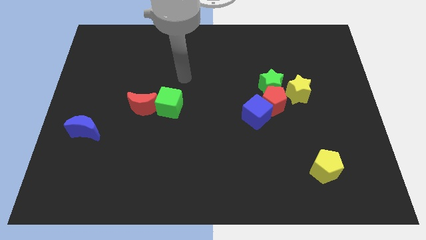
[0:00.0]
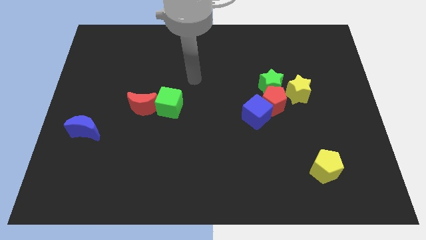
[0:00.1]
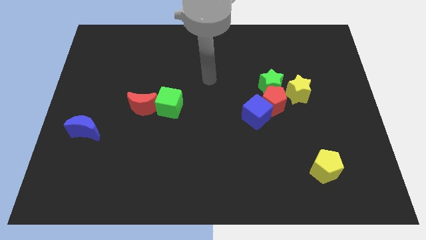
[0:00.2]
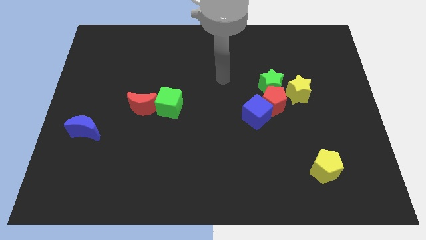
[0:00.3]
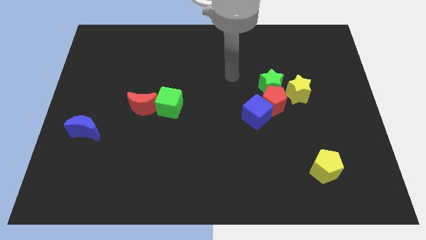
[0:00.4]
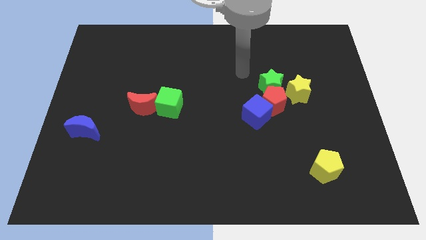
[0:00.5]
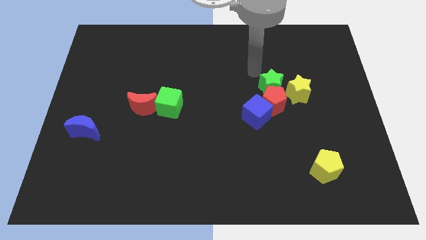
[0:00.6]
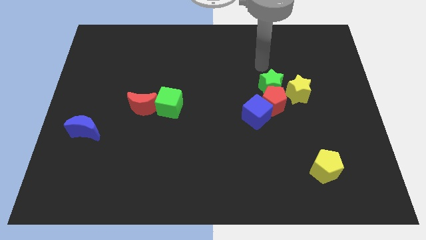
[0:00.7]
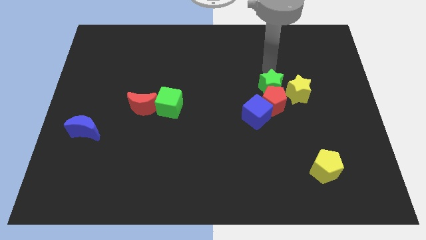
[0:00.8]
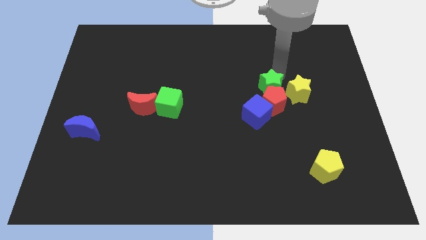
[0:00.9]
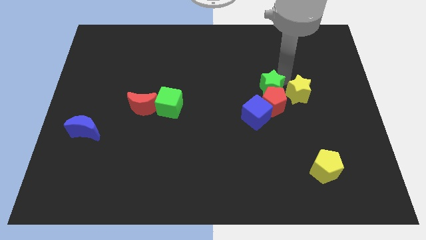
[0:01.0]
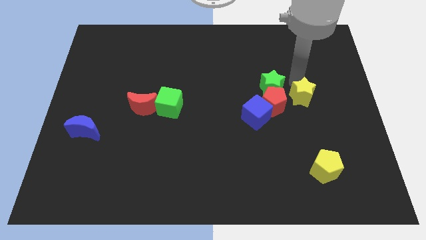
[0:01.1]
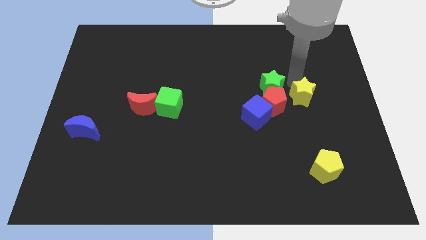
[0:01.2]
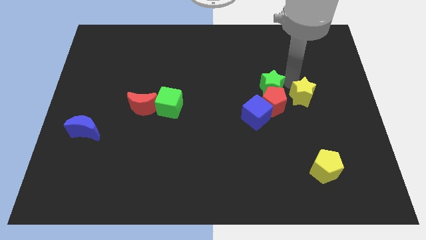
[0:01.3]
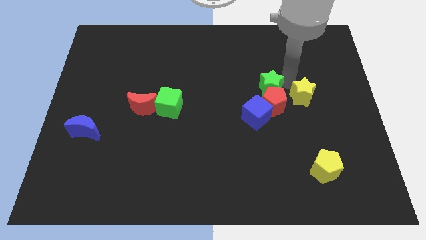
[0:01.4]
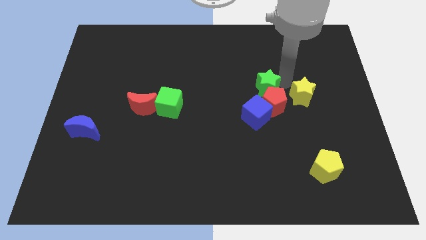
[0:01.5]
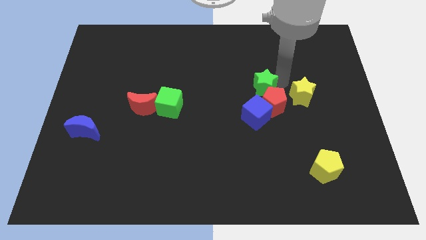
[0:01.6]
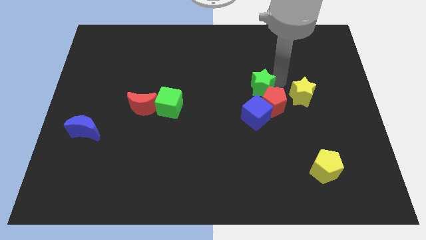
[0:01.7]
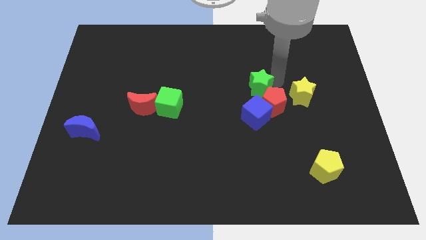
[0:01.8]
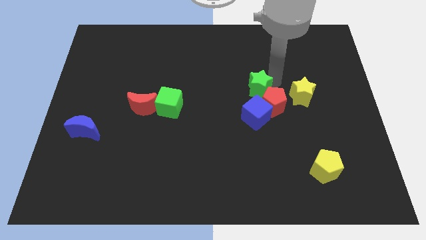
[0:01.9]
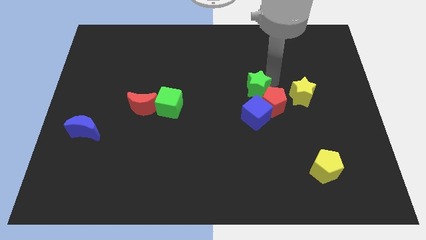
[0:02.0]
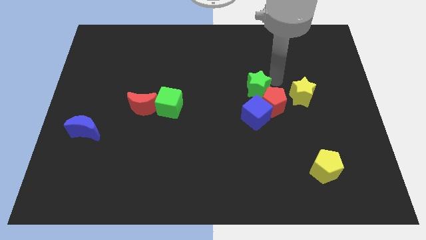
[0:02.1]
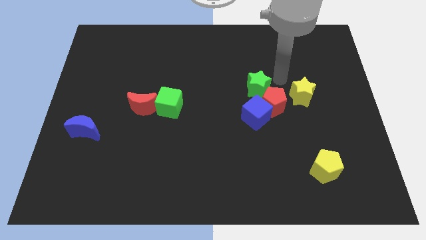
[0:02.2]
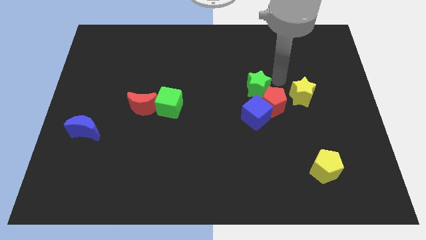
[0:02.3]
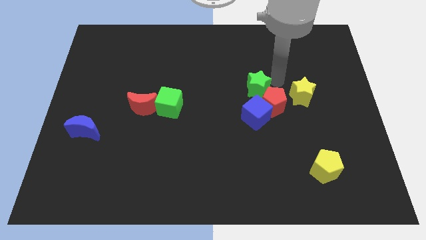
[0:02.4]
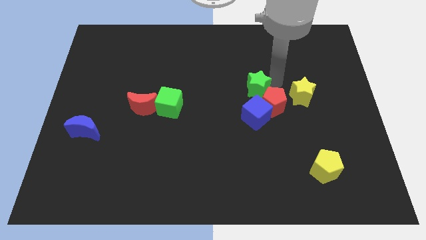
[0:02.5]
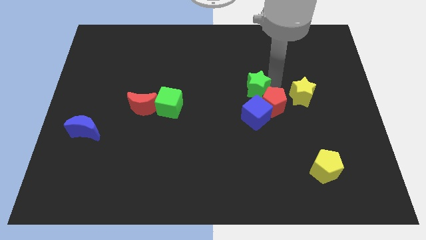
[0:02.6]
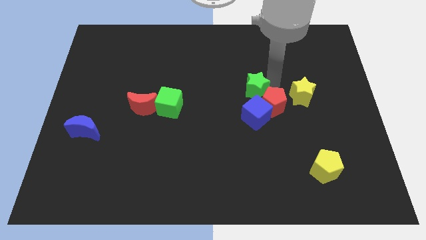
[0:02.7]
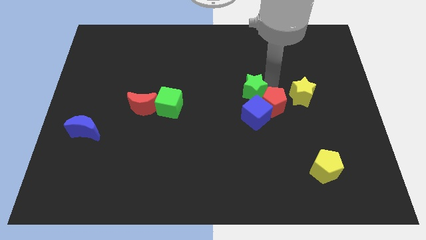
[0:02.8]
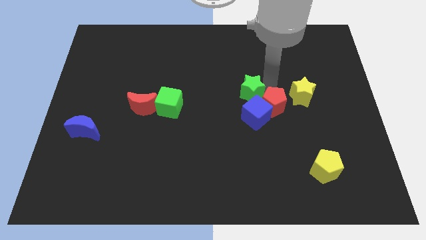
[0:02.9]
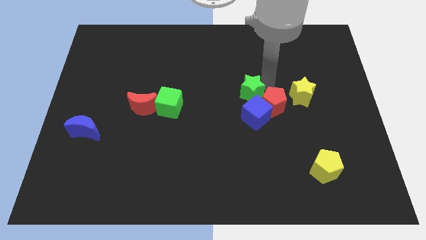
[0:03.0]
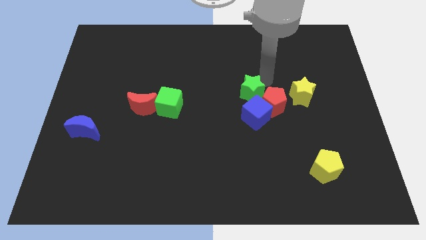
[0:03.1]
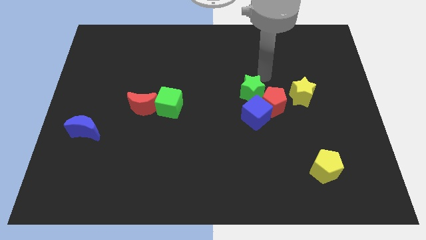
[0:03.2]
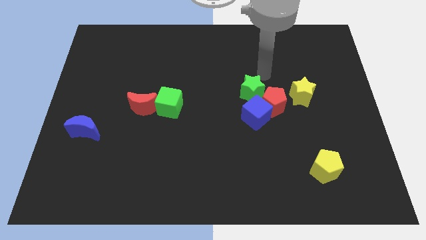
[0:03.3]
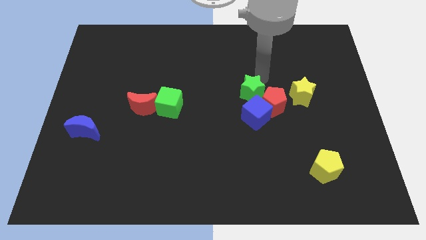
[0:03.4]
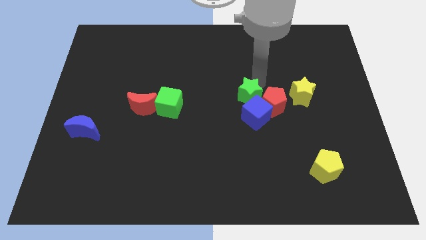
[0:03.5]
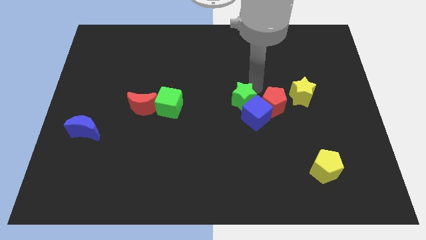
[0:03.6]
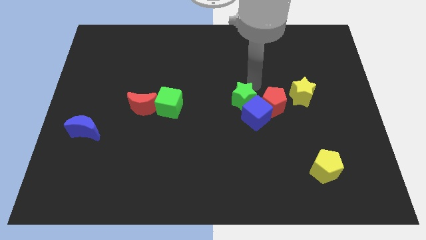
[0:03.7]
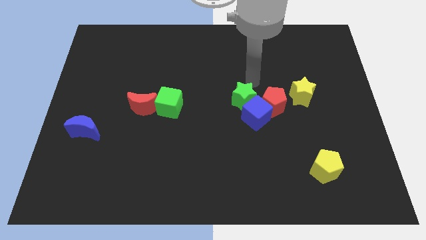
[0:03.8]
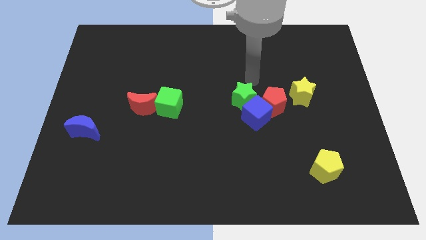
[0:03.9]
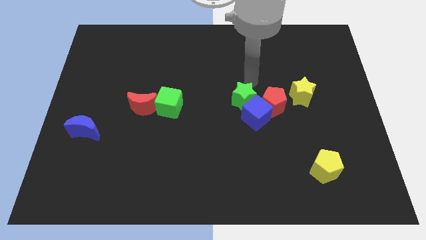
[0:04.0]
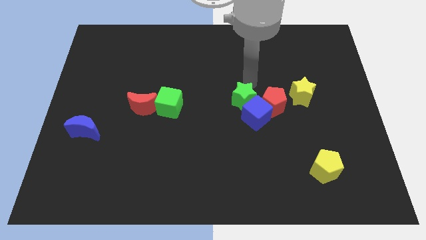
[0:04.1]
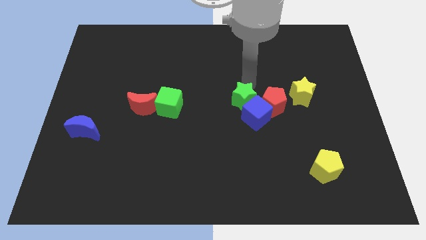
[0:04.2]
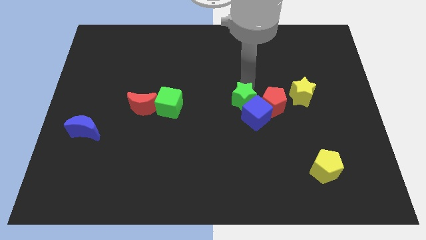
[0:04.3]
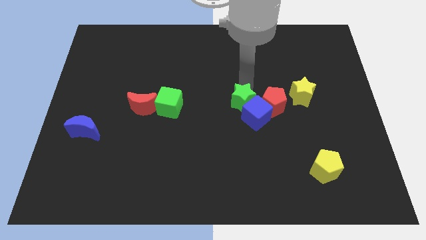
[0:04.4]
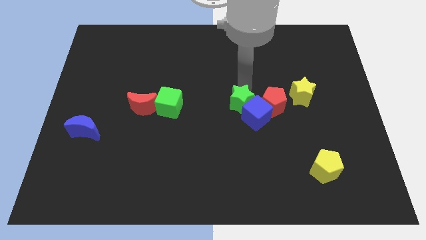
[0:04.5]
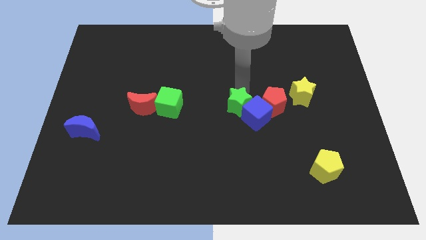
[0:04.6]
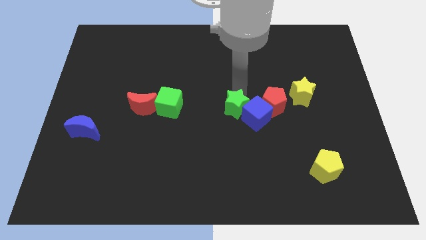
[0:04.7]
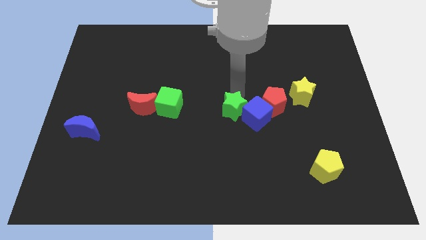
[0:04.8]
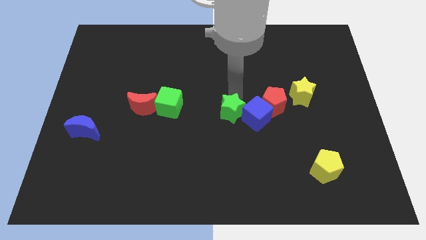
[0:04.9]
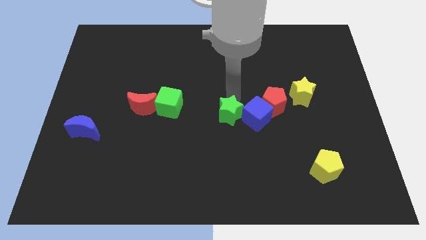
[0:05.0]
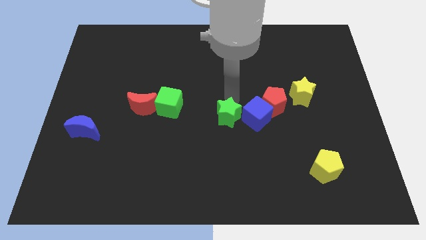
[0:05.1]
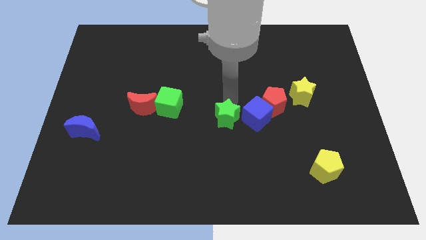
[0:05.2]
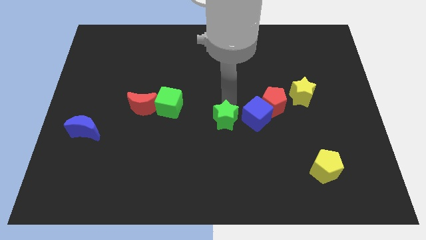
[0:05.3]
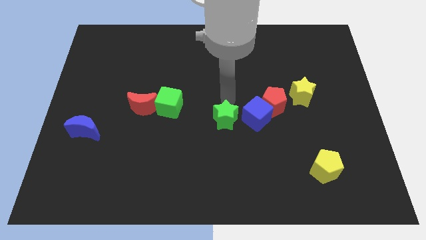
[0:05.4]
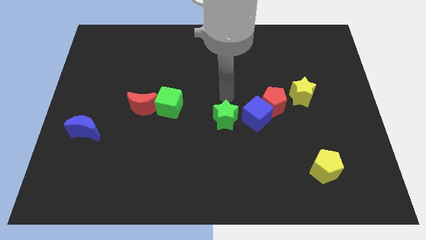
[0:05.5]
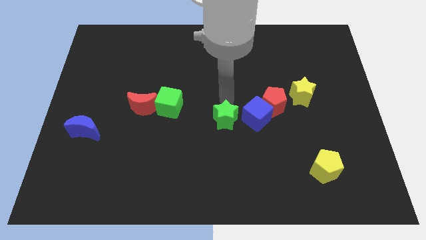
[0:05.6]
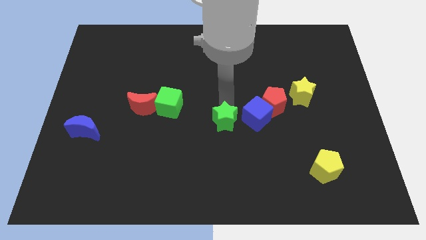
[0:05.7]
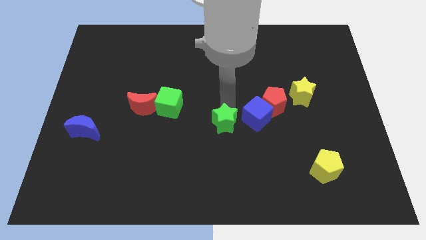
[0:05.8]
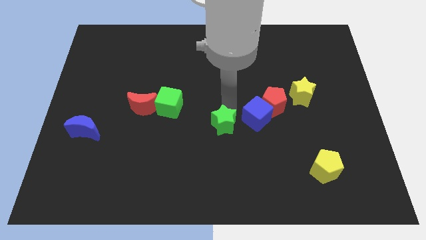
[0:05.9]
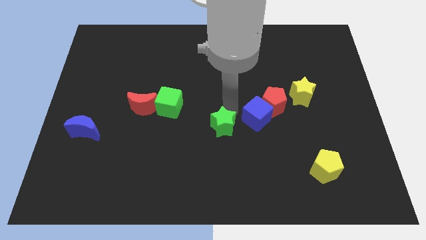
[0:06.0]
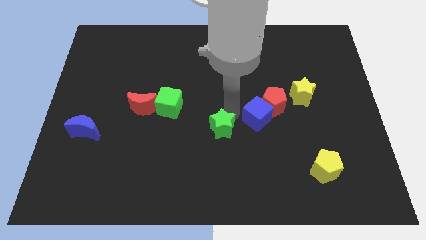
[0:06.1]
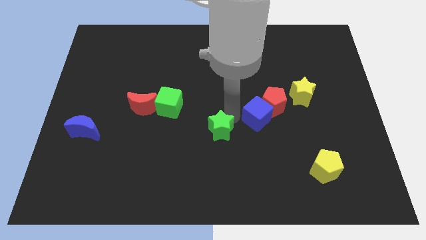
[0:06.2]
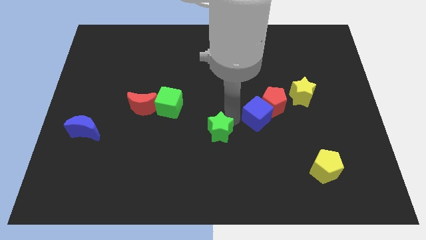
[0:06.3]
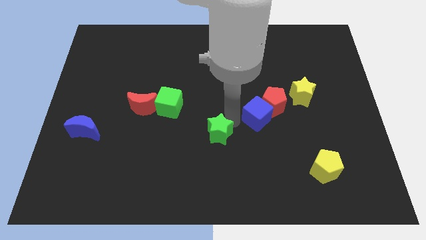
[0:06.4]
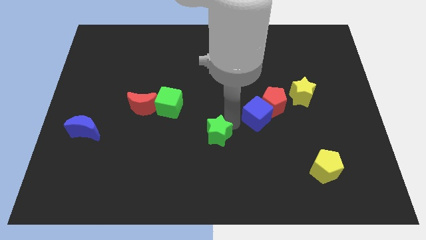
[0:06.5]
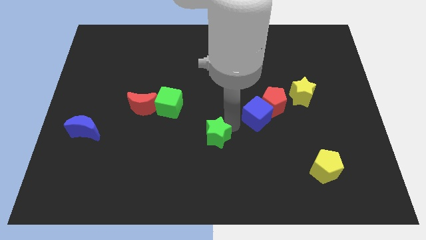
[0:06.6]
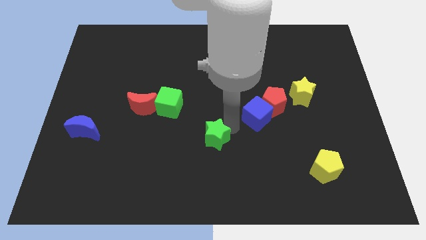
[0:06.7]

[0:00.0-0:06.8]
slide the green star down and then to the left

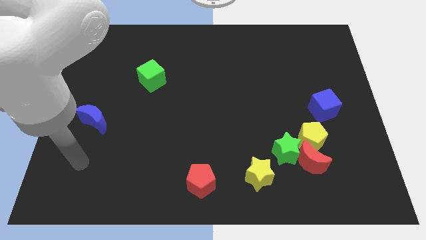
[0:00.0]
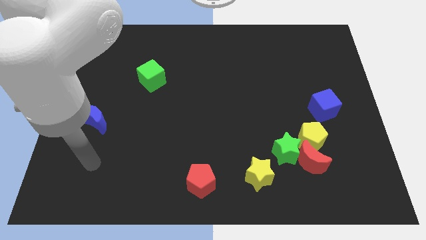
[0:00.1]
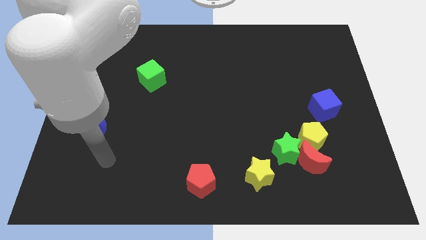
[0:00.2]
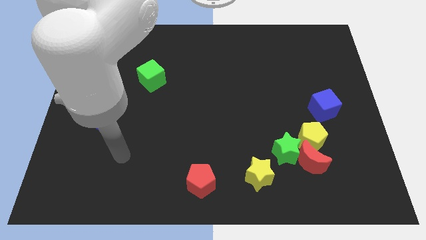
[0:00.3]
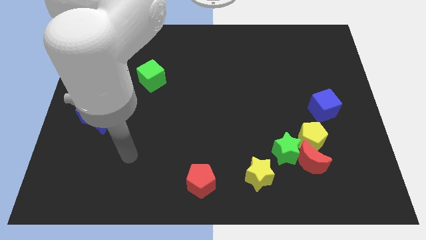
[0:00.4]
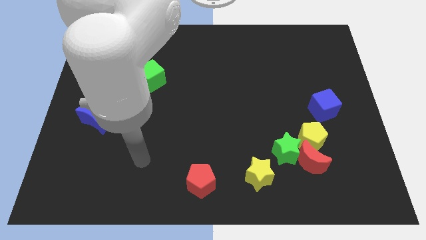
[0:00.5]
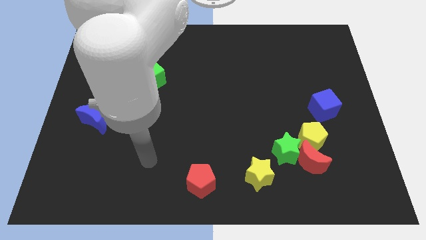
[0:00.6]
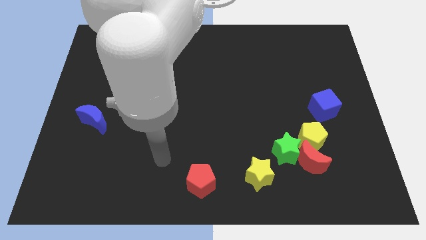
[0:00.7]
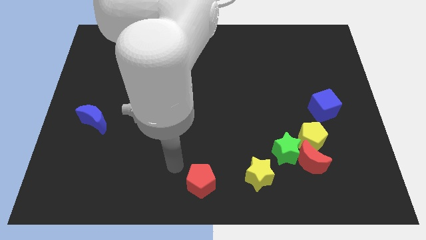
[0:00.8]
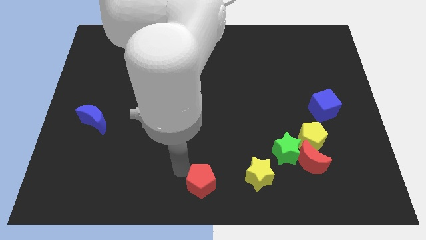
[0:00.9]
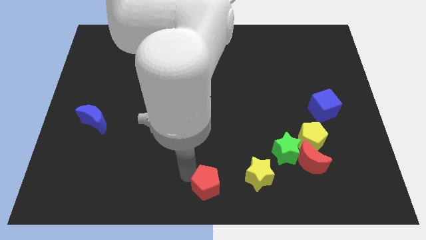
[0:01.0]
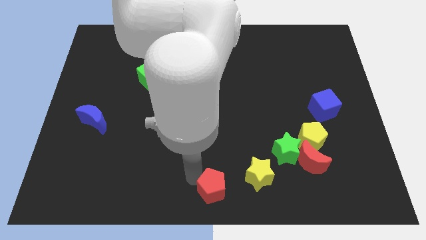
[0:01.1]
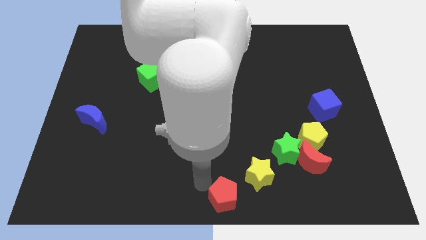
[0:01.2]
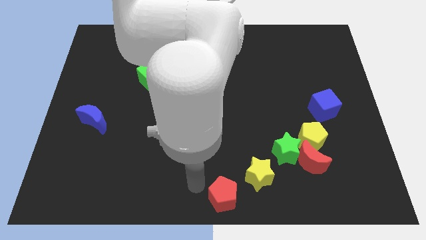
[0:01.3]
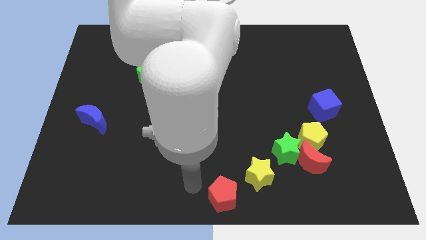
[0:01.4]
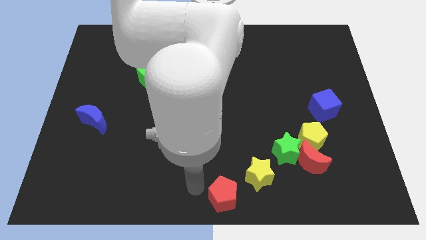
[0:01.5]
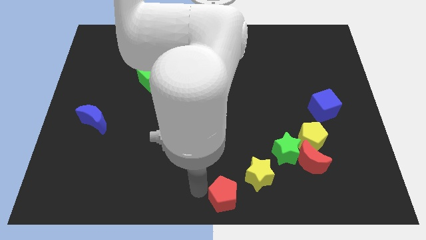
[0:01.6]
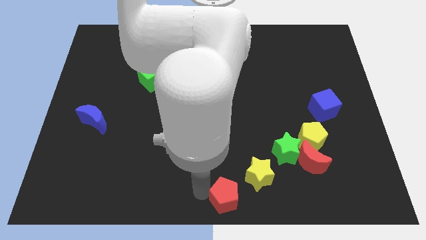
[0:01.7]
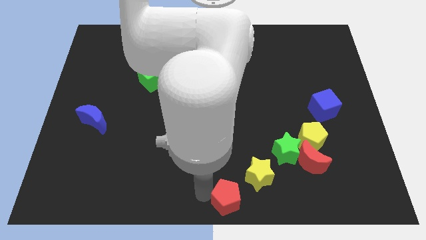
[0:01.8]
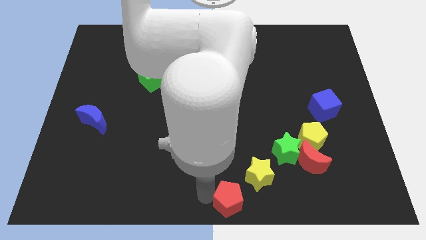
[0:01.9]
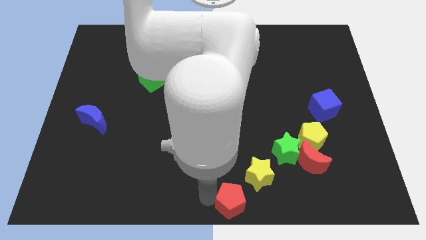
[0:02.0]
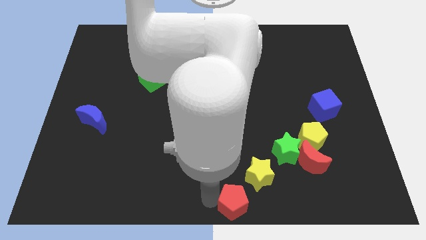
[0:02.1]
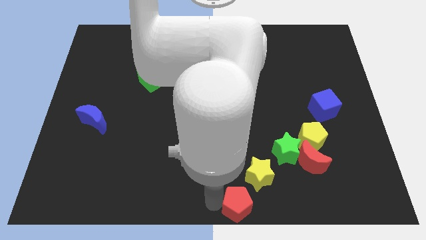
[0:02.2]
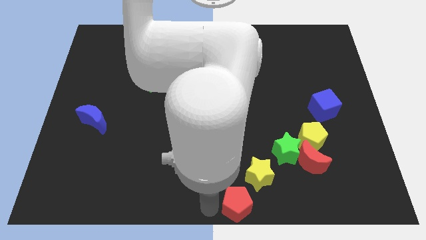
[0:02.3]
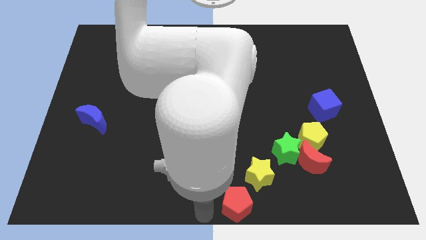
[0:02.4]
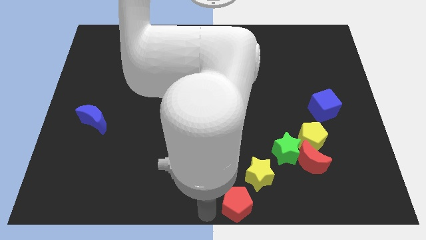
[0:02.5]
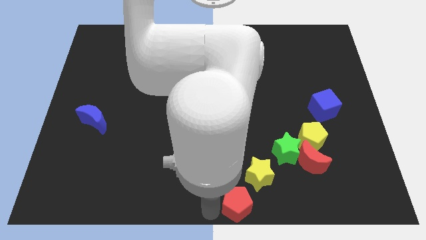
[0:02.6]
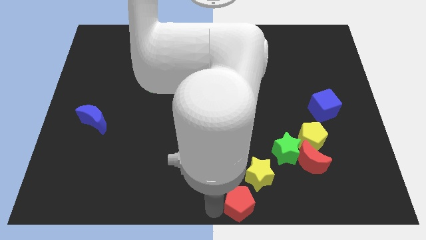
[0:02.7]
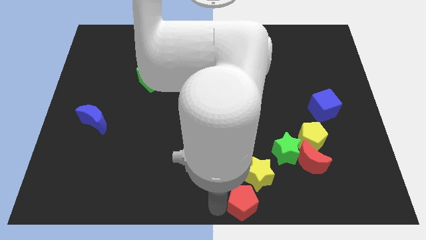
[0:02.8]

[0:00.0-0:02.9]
slightly slide the red pentagon to the right
